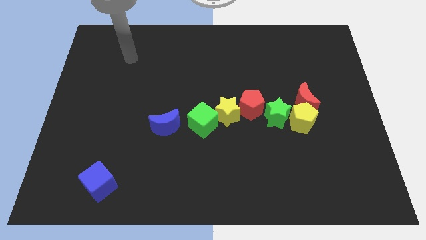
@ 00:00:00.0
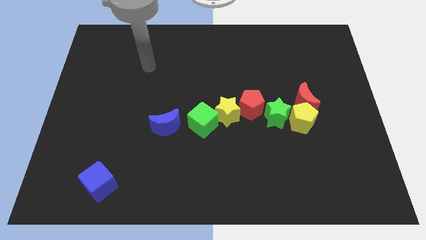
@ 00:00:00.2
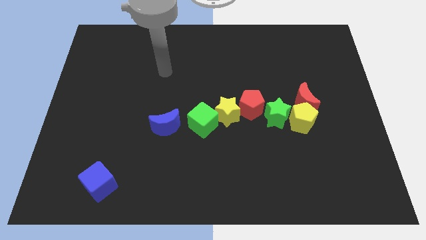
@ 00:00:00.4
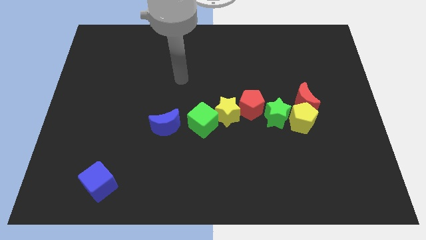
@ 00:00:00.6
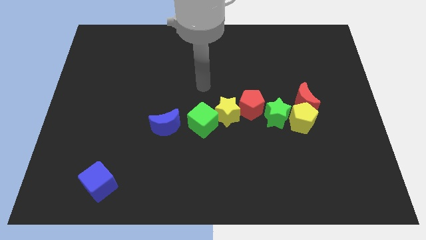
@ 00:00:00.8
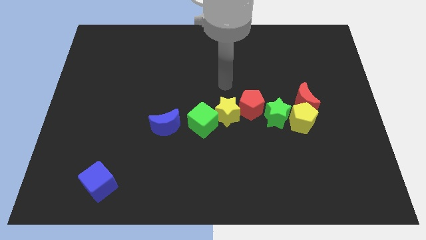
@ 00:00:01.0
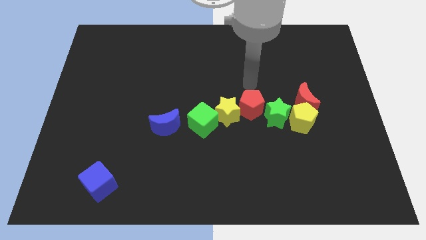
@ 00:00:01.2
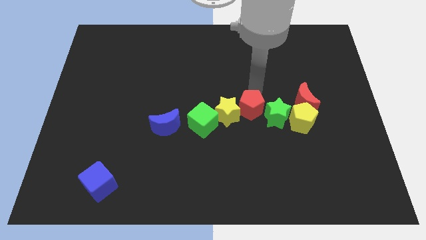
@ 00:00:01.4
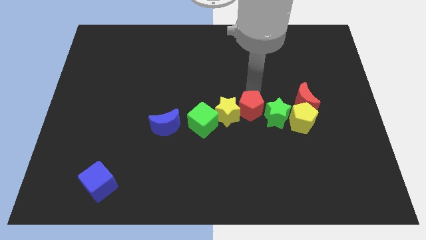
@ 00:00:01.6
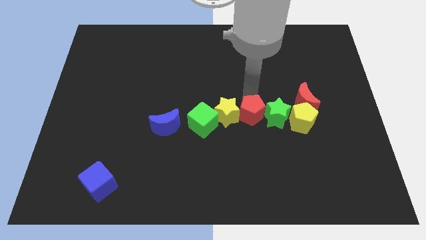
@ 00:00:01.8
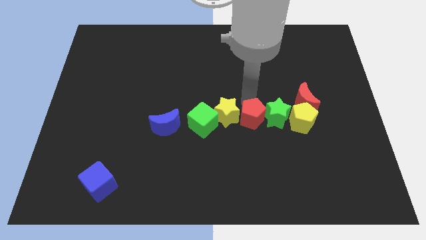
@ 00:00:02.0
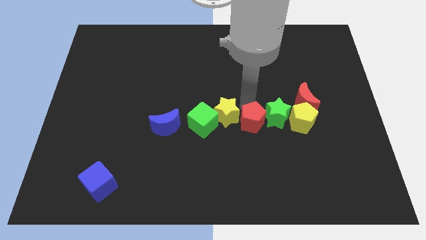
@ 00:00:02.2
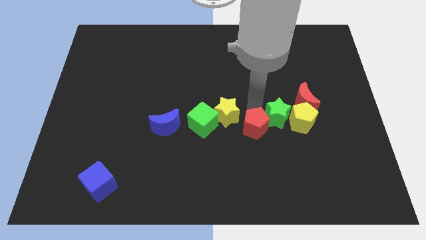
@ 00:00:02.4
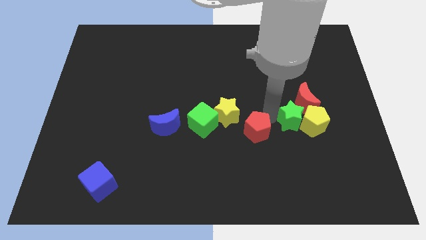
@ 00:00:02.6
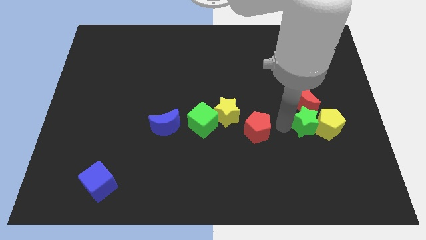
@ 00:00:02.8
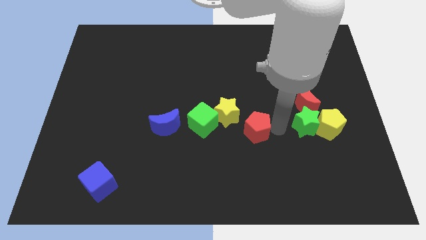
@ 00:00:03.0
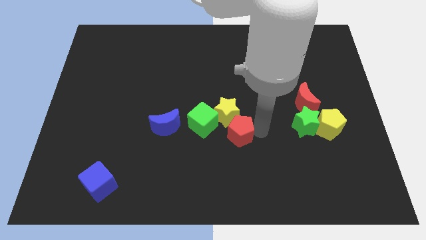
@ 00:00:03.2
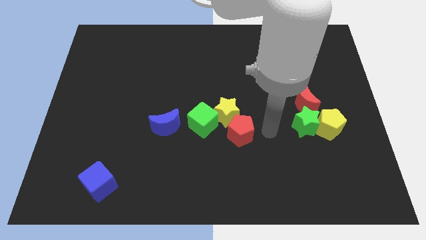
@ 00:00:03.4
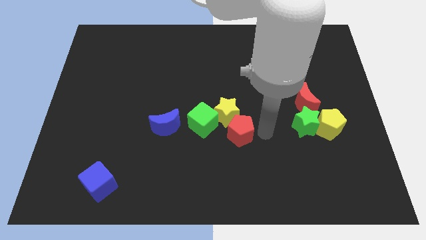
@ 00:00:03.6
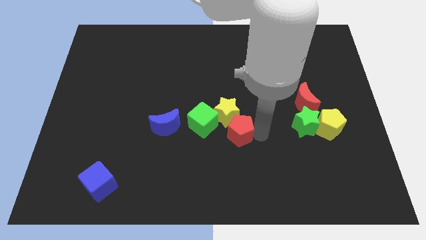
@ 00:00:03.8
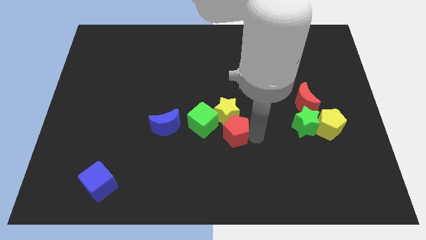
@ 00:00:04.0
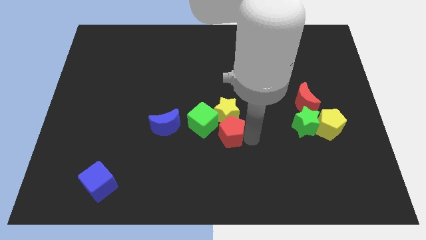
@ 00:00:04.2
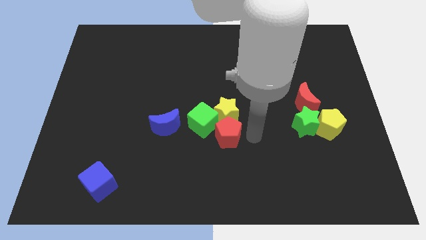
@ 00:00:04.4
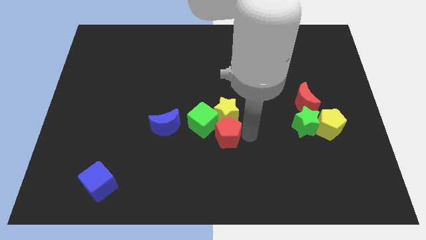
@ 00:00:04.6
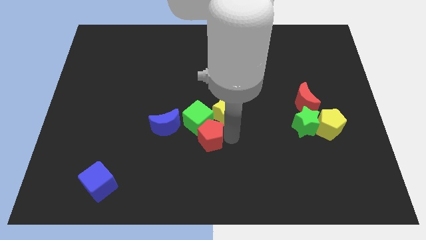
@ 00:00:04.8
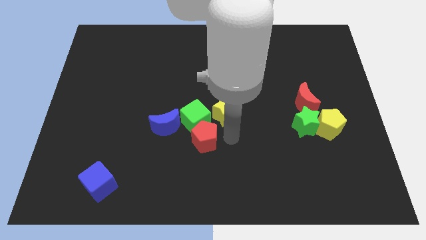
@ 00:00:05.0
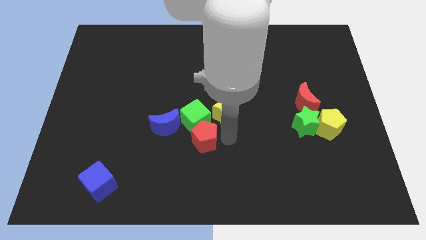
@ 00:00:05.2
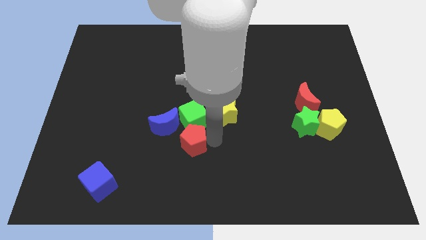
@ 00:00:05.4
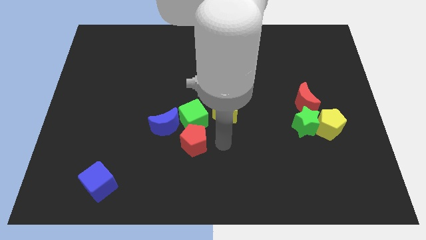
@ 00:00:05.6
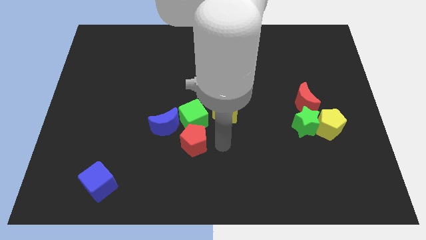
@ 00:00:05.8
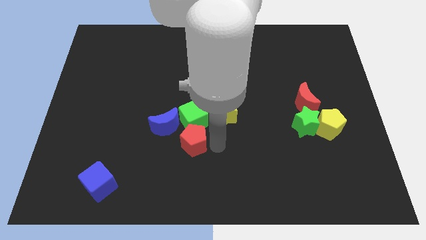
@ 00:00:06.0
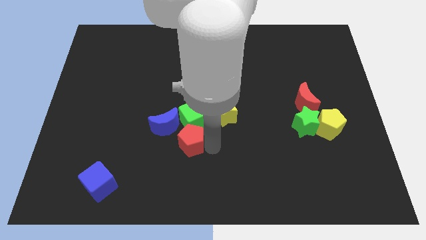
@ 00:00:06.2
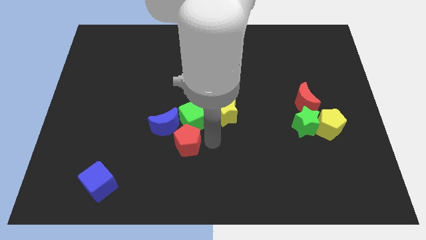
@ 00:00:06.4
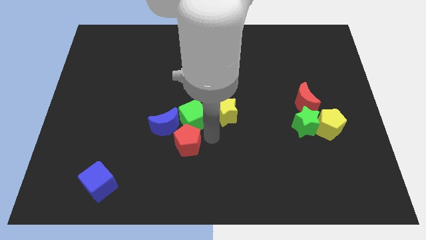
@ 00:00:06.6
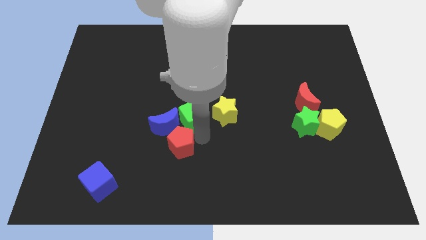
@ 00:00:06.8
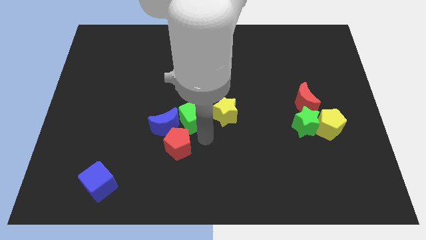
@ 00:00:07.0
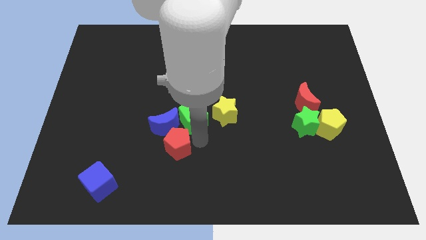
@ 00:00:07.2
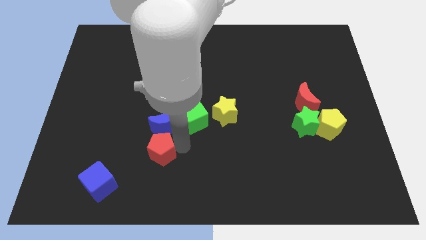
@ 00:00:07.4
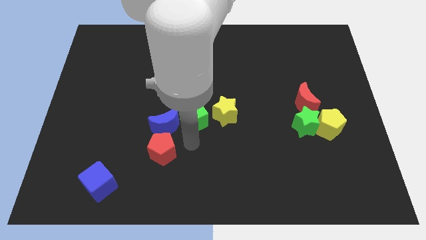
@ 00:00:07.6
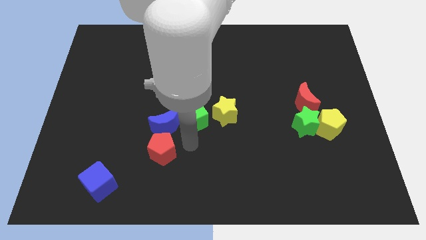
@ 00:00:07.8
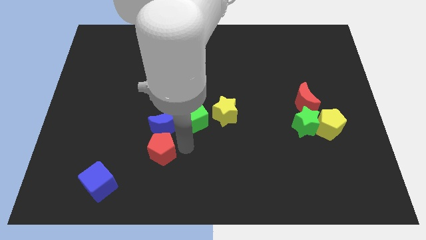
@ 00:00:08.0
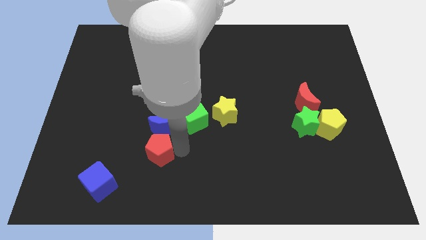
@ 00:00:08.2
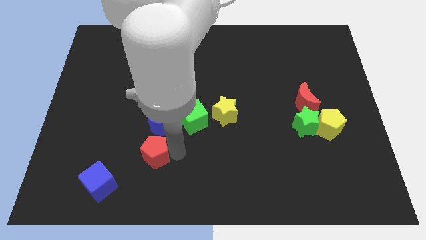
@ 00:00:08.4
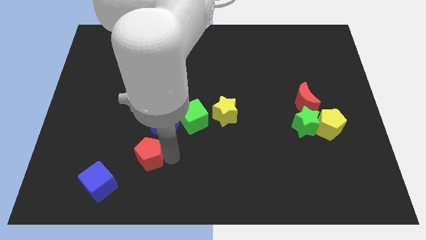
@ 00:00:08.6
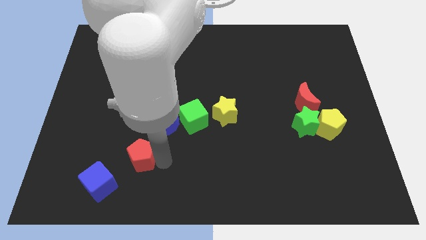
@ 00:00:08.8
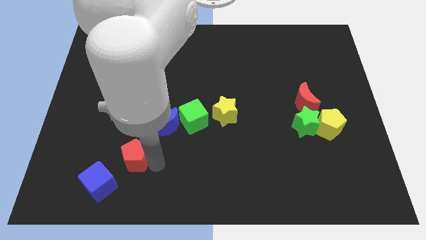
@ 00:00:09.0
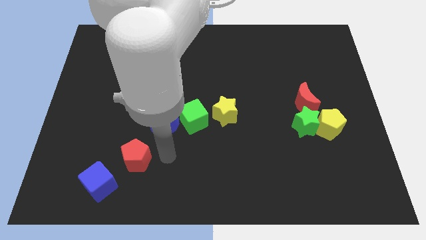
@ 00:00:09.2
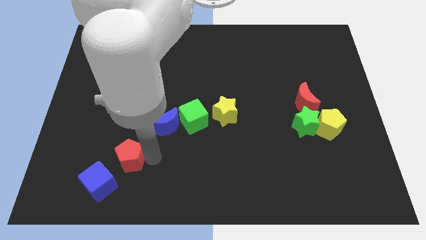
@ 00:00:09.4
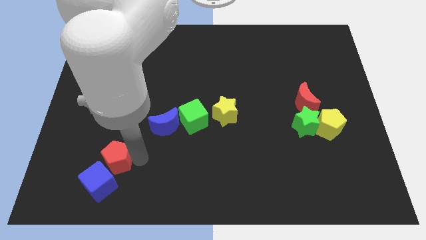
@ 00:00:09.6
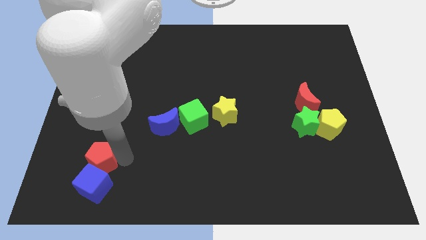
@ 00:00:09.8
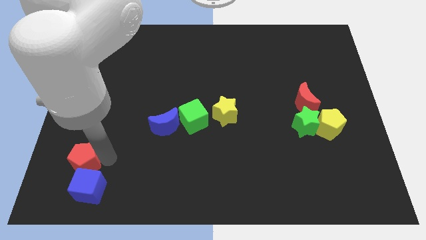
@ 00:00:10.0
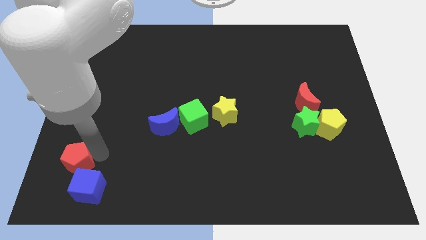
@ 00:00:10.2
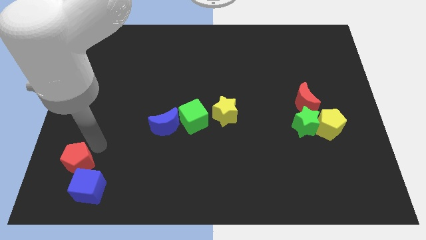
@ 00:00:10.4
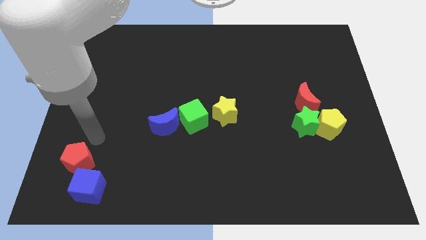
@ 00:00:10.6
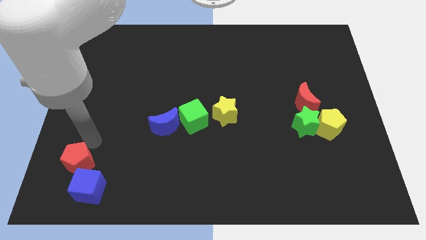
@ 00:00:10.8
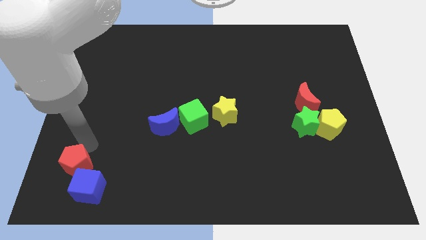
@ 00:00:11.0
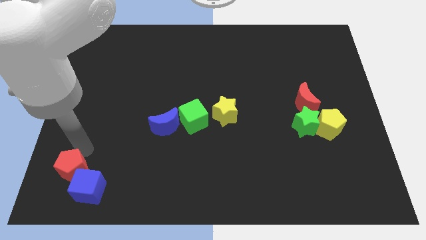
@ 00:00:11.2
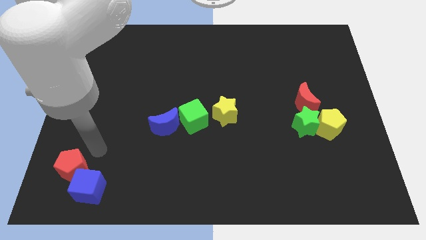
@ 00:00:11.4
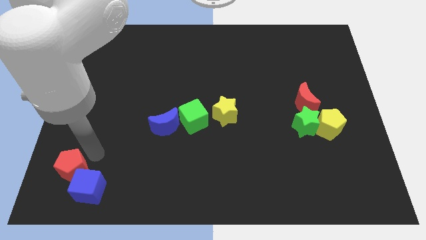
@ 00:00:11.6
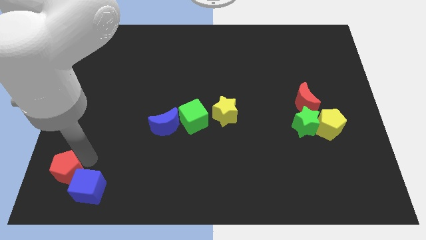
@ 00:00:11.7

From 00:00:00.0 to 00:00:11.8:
slide the red pentagon to the bottom left of the board

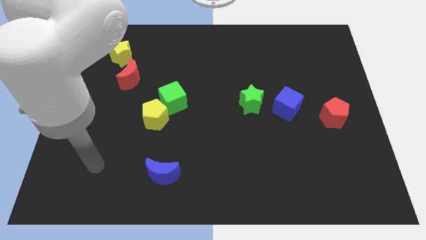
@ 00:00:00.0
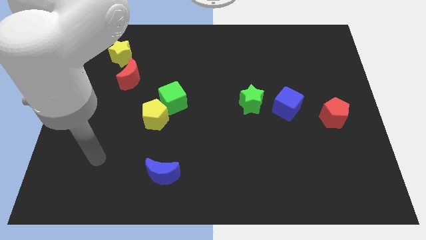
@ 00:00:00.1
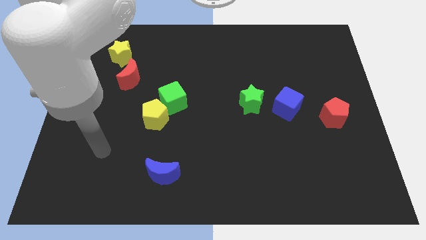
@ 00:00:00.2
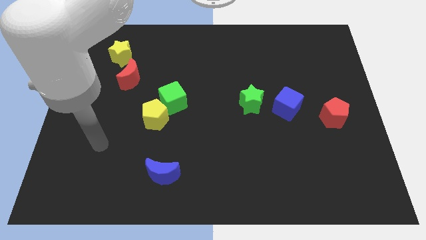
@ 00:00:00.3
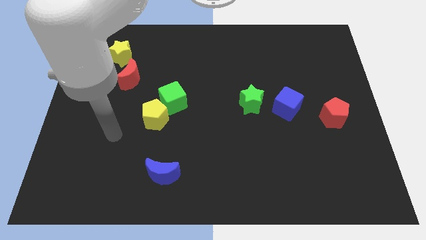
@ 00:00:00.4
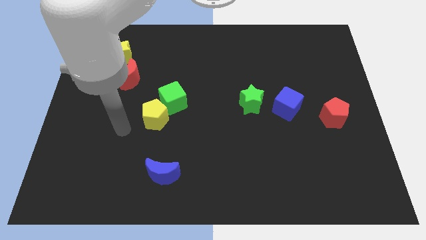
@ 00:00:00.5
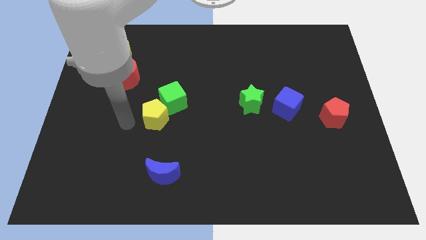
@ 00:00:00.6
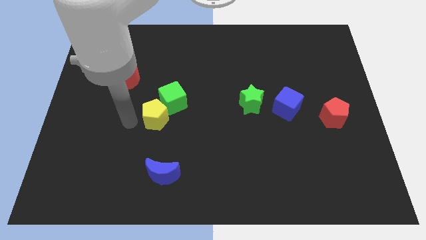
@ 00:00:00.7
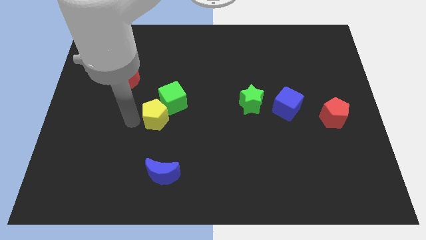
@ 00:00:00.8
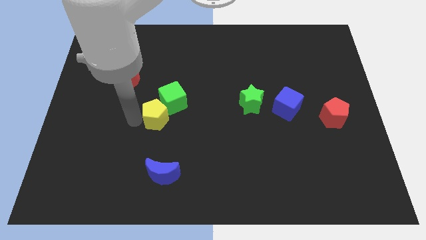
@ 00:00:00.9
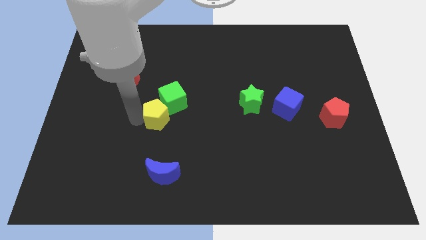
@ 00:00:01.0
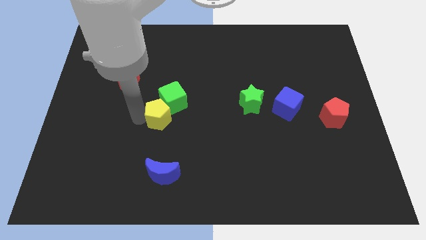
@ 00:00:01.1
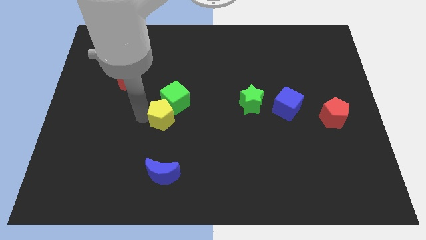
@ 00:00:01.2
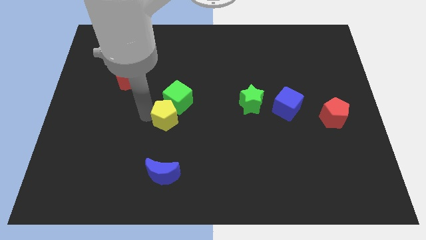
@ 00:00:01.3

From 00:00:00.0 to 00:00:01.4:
put the yellow pentagon to the middle of the board
